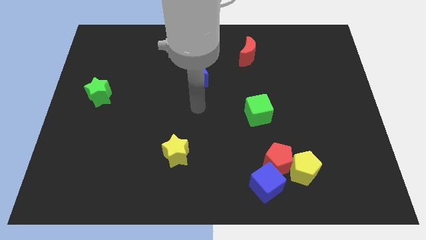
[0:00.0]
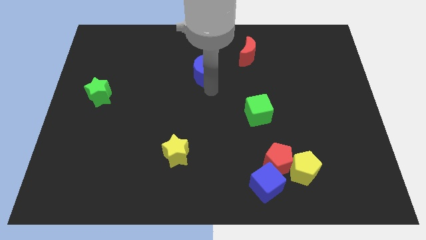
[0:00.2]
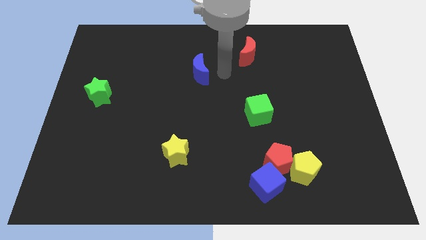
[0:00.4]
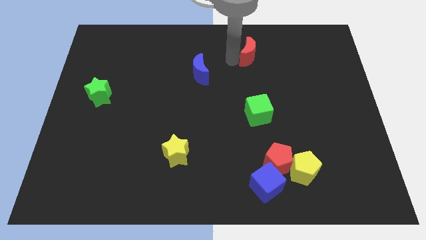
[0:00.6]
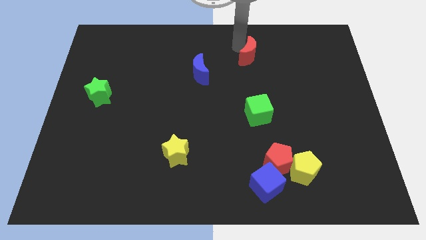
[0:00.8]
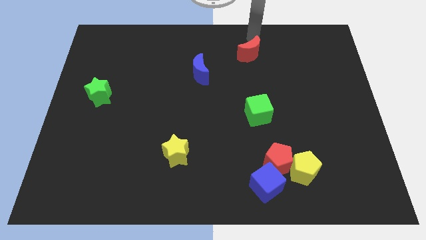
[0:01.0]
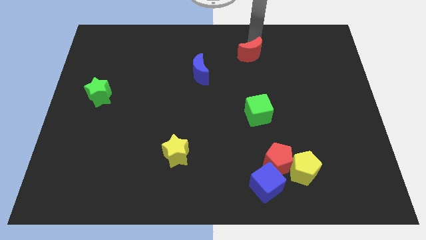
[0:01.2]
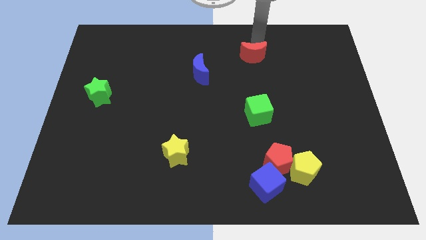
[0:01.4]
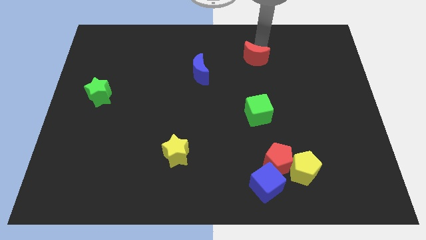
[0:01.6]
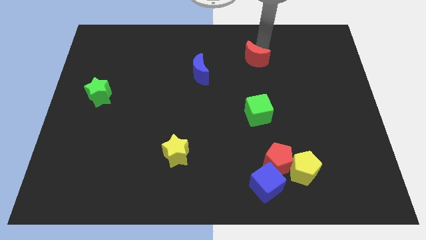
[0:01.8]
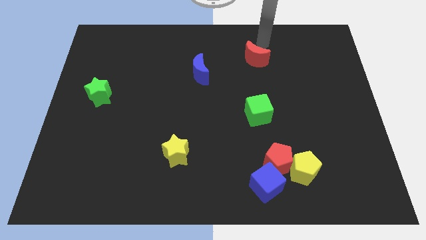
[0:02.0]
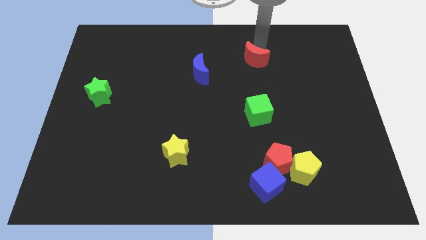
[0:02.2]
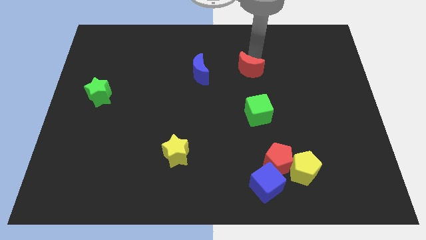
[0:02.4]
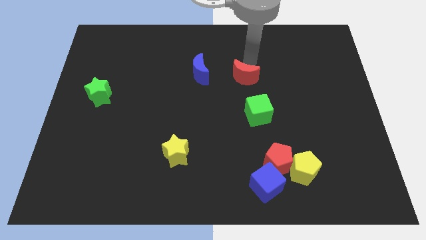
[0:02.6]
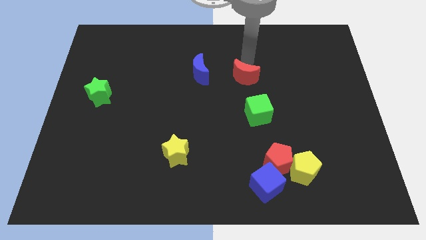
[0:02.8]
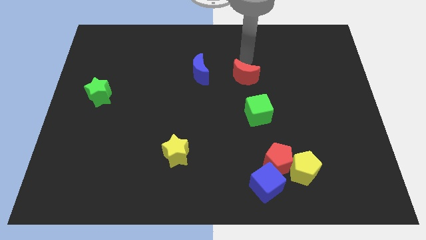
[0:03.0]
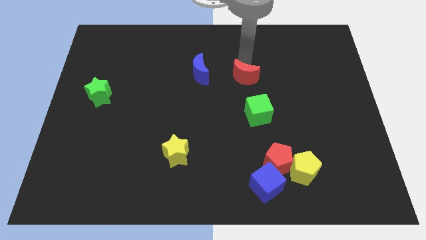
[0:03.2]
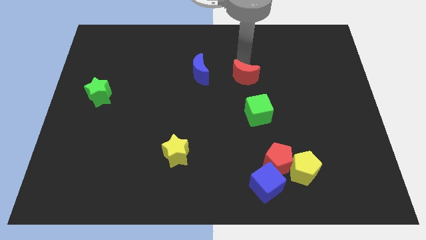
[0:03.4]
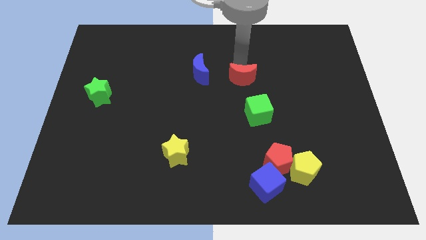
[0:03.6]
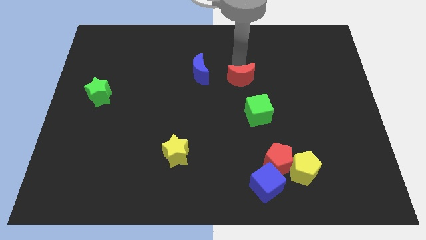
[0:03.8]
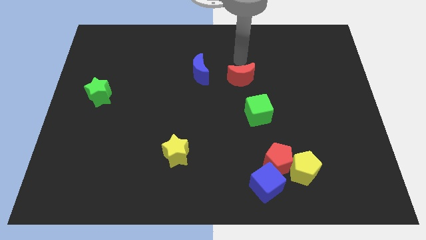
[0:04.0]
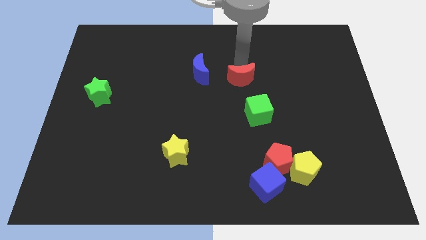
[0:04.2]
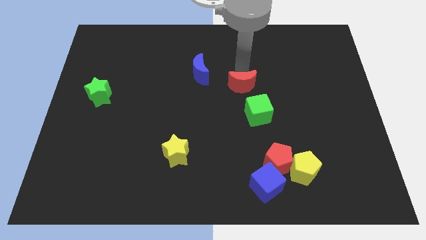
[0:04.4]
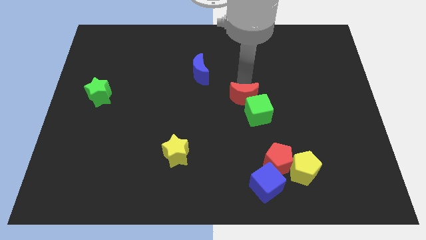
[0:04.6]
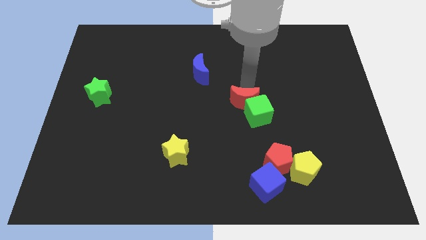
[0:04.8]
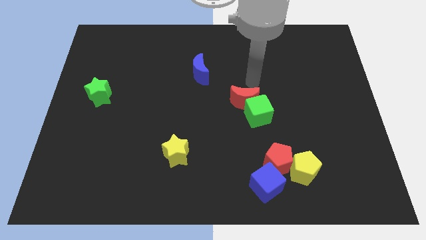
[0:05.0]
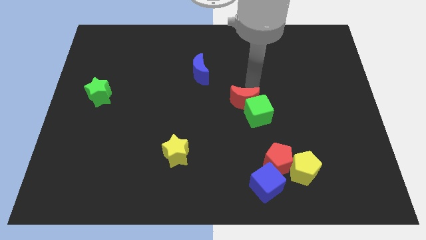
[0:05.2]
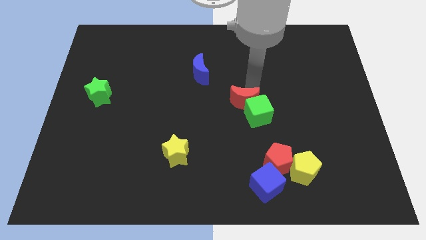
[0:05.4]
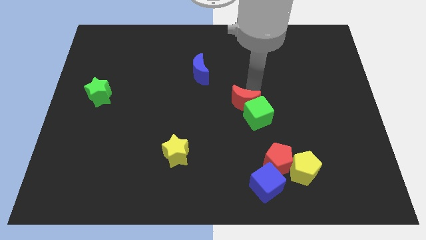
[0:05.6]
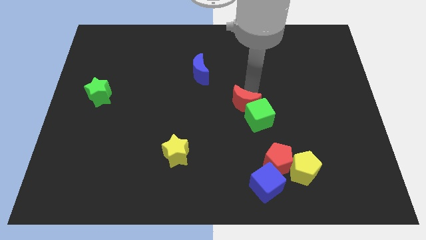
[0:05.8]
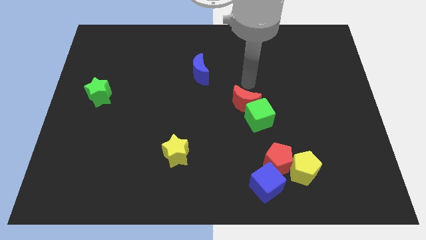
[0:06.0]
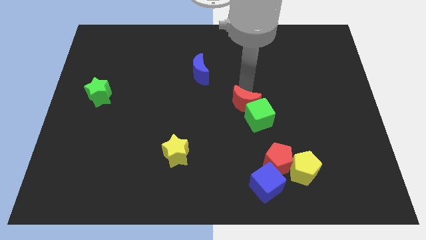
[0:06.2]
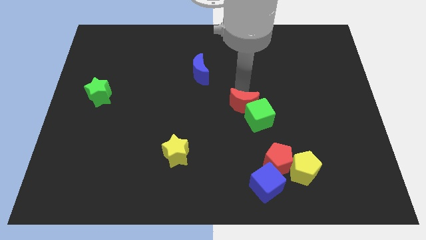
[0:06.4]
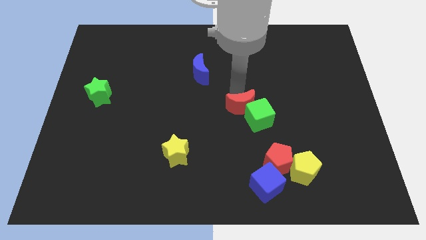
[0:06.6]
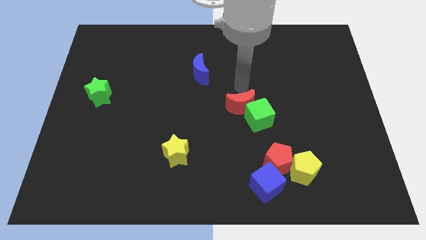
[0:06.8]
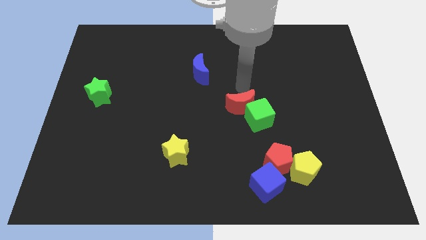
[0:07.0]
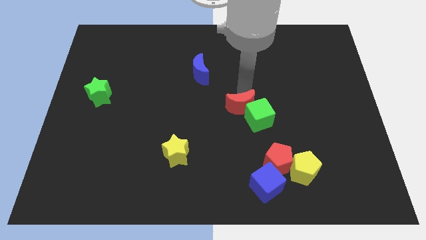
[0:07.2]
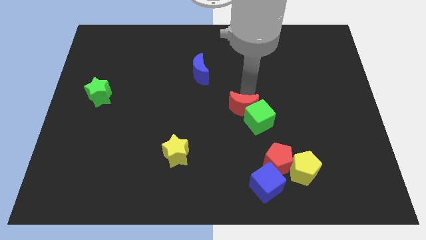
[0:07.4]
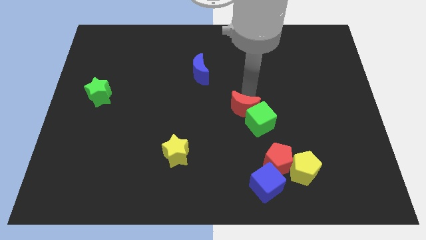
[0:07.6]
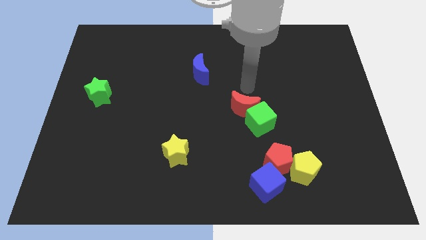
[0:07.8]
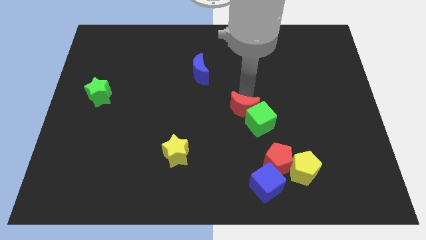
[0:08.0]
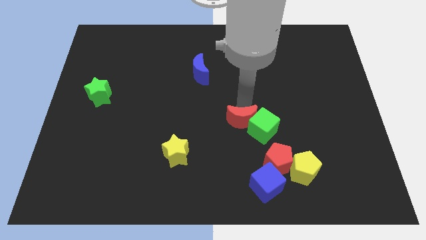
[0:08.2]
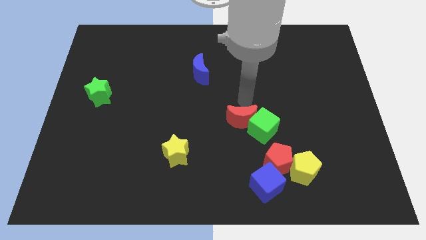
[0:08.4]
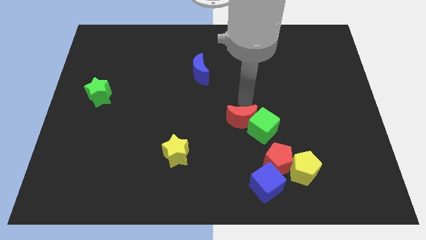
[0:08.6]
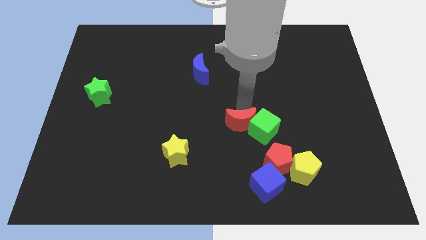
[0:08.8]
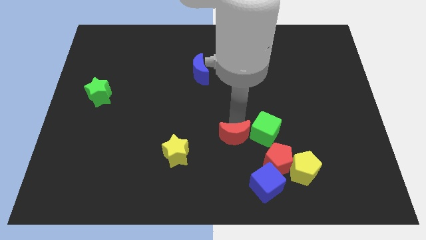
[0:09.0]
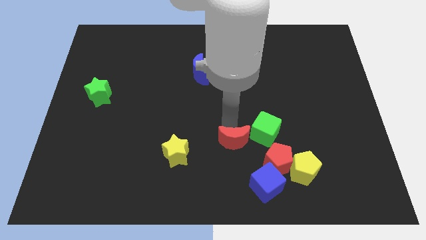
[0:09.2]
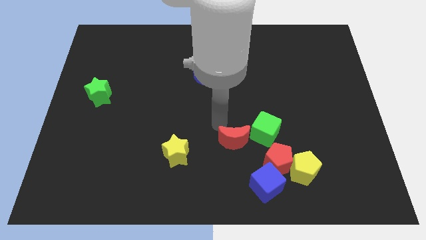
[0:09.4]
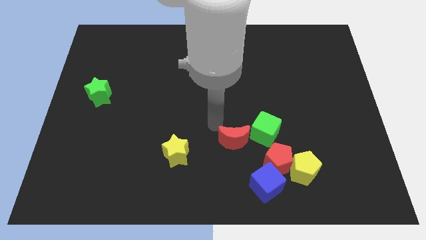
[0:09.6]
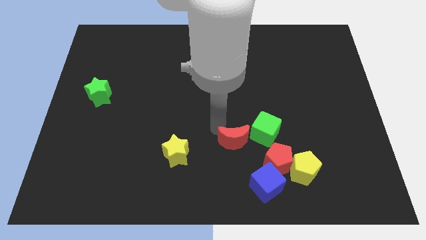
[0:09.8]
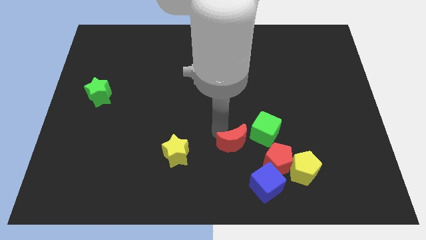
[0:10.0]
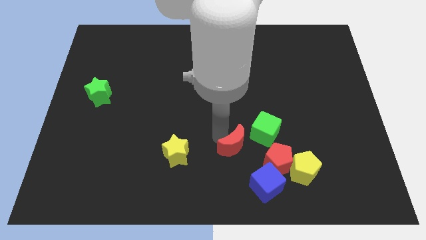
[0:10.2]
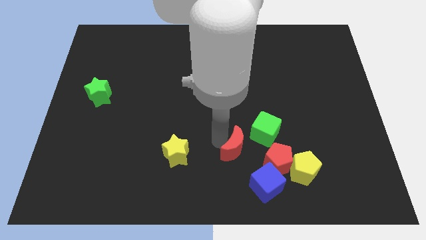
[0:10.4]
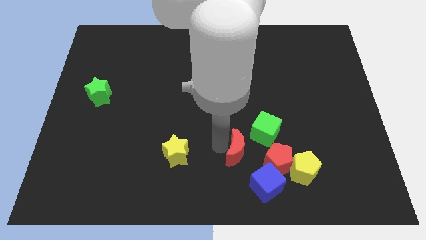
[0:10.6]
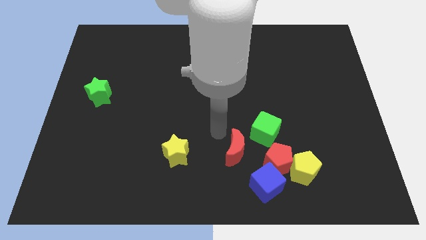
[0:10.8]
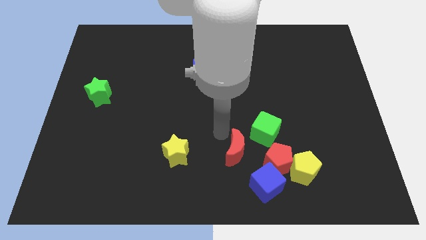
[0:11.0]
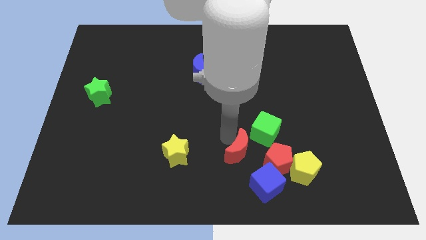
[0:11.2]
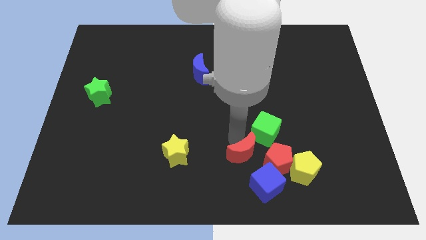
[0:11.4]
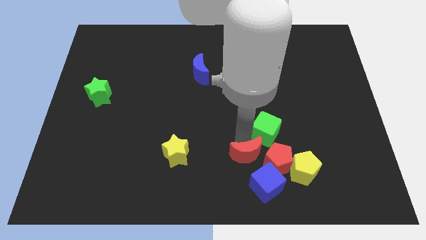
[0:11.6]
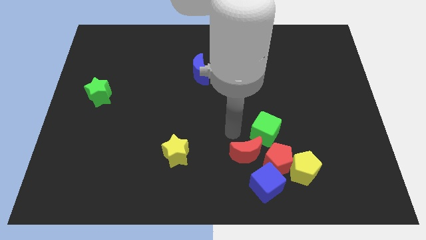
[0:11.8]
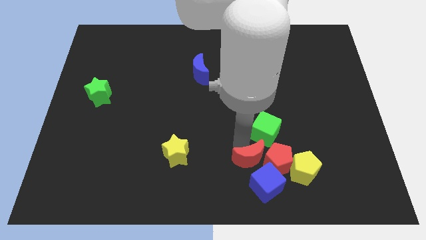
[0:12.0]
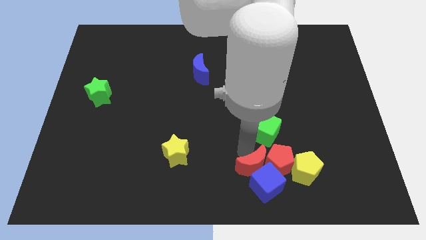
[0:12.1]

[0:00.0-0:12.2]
put the red moon towards the blue cube

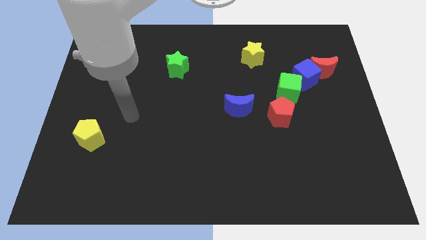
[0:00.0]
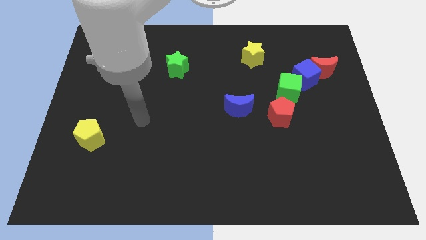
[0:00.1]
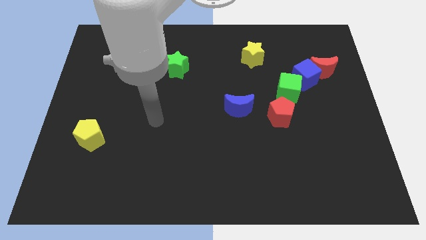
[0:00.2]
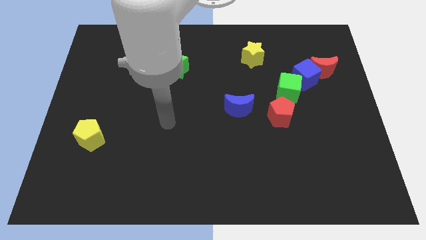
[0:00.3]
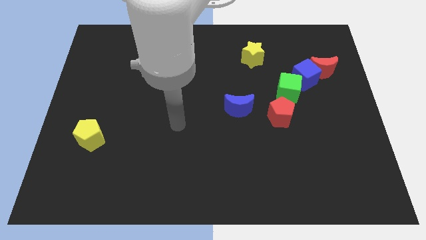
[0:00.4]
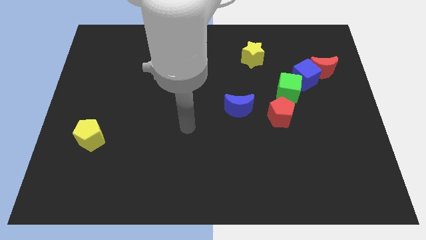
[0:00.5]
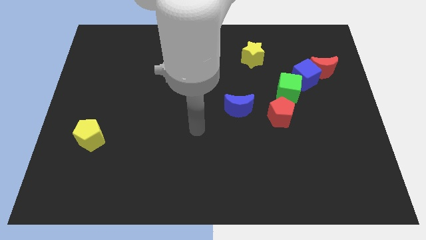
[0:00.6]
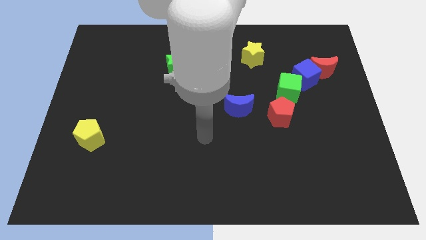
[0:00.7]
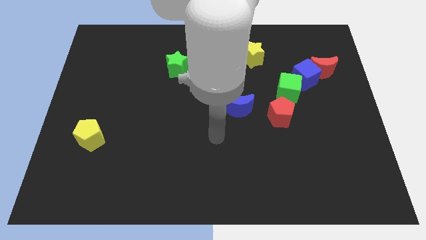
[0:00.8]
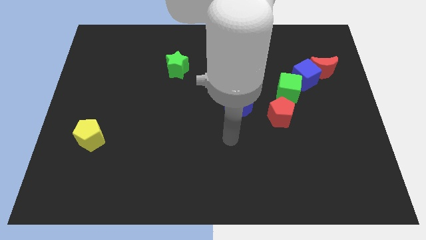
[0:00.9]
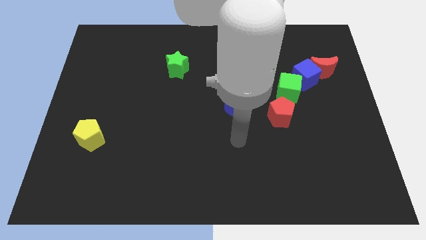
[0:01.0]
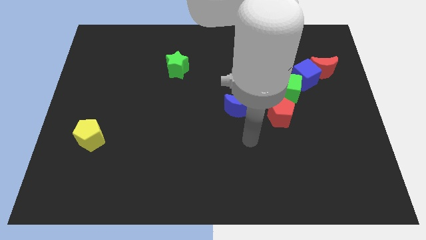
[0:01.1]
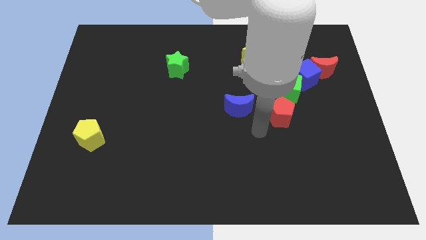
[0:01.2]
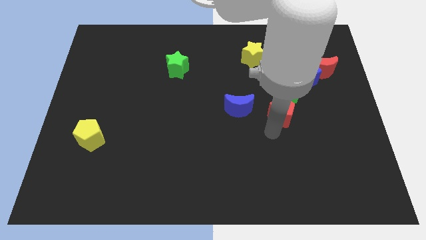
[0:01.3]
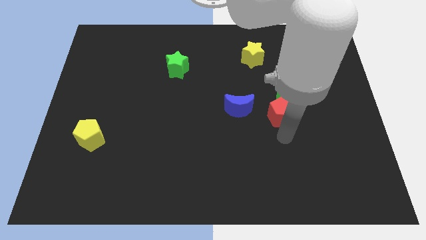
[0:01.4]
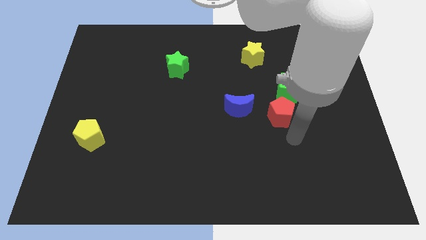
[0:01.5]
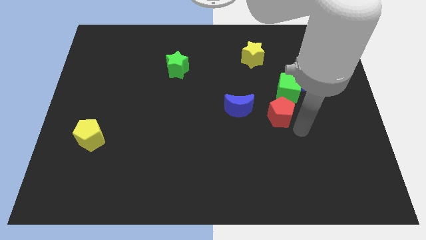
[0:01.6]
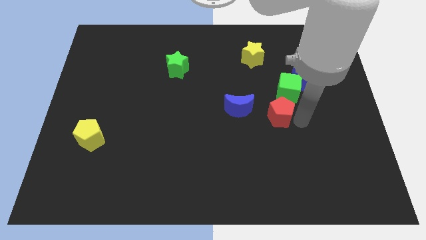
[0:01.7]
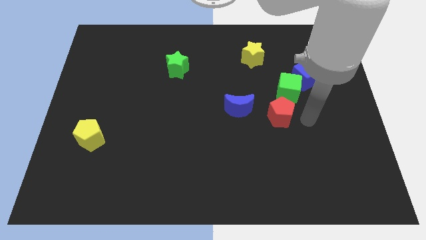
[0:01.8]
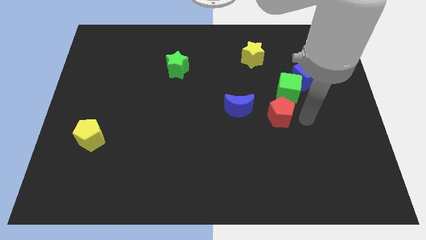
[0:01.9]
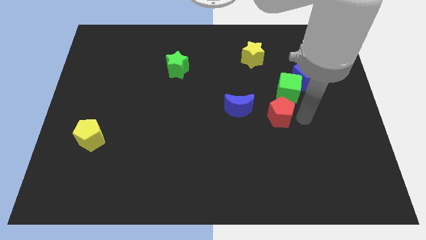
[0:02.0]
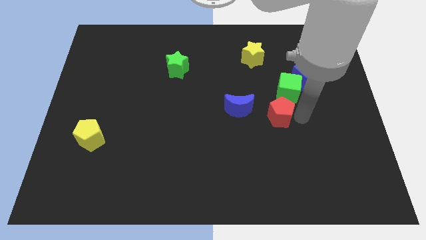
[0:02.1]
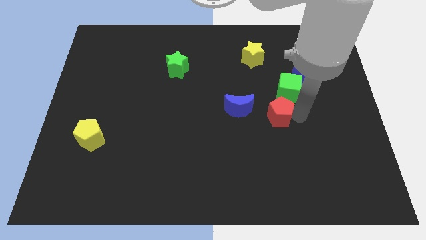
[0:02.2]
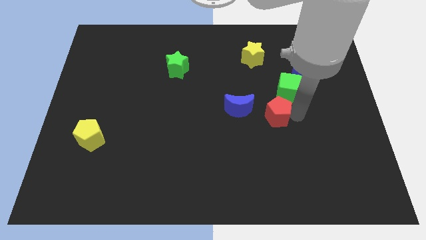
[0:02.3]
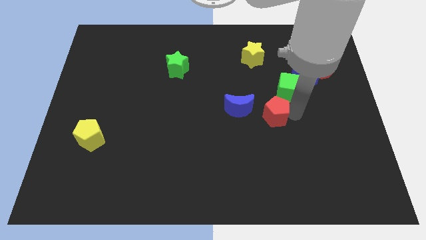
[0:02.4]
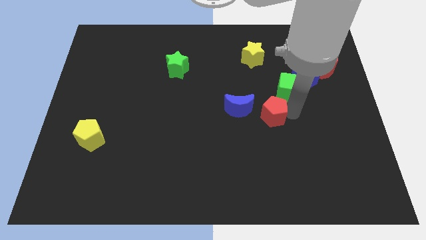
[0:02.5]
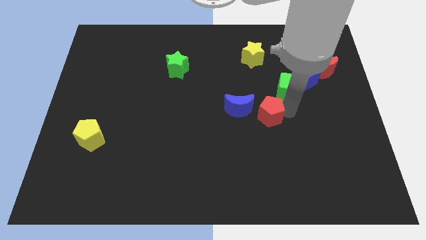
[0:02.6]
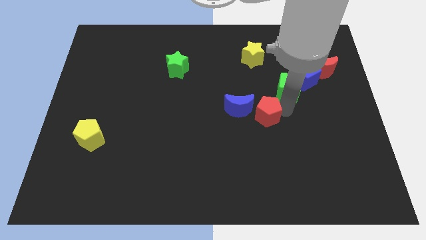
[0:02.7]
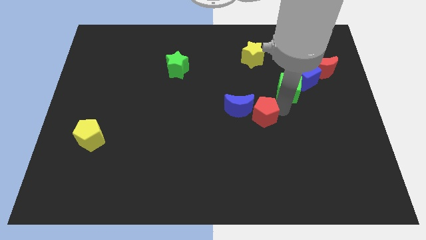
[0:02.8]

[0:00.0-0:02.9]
push the red pentagon towards the blue moon
